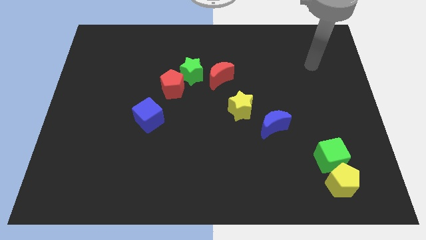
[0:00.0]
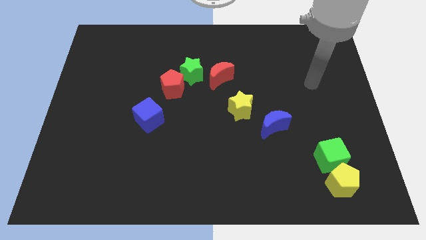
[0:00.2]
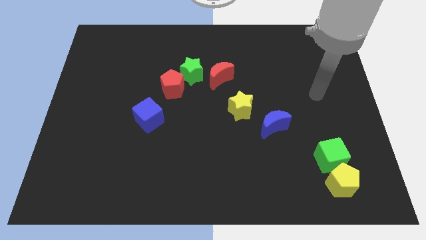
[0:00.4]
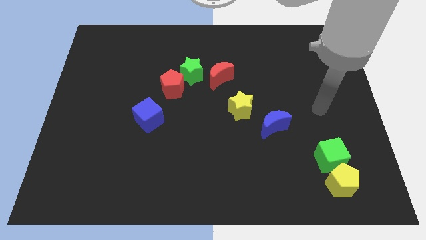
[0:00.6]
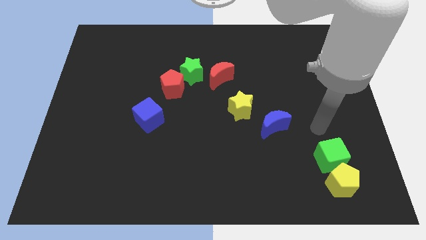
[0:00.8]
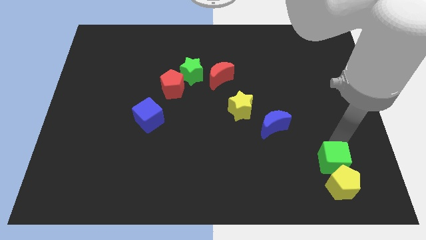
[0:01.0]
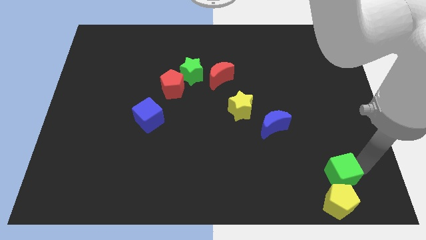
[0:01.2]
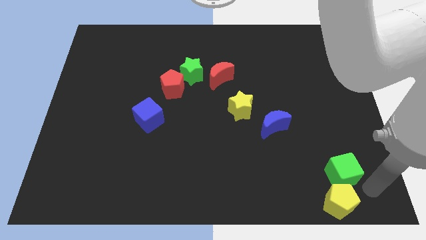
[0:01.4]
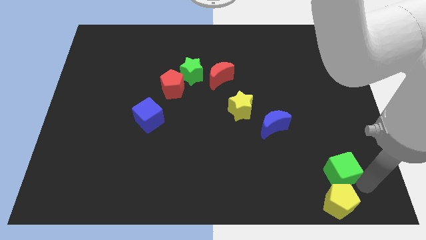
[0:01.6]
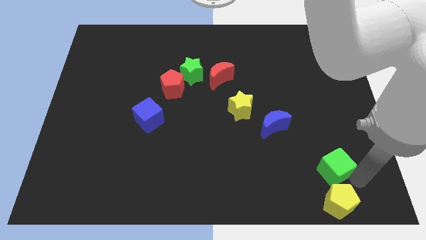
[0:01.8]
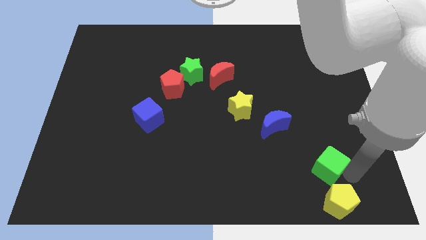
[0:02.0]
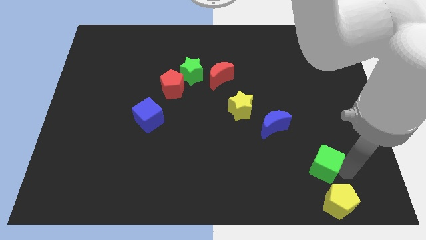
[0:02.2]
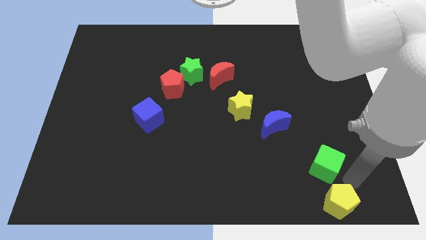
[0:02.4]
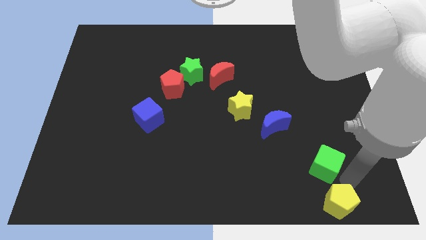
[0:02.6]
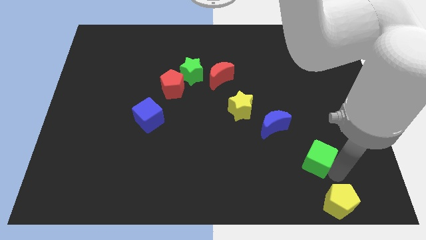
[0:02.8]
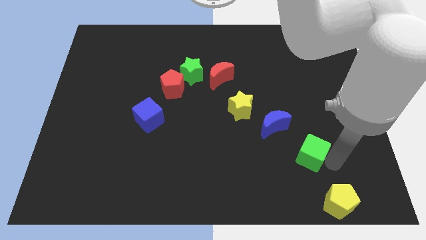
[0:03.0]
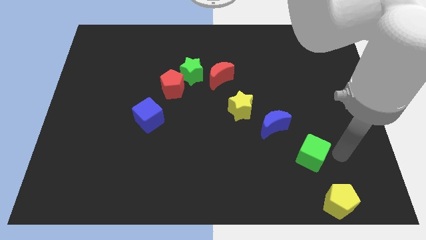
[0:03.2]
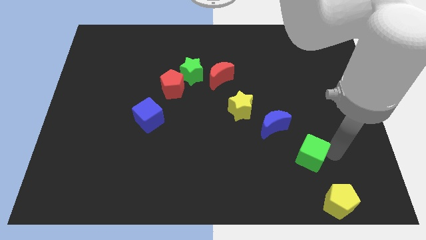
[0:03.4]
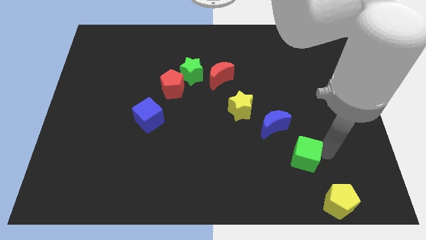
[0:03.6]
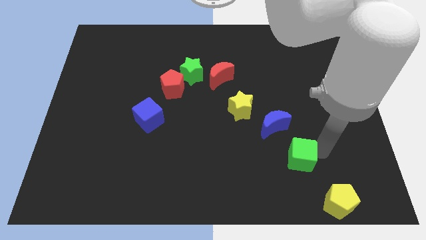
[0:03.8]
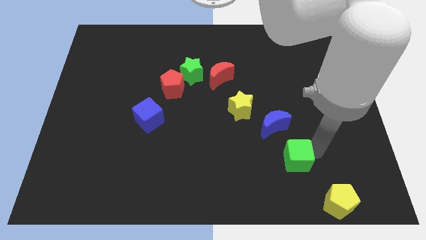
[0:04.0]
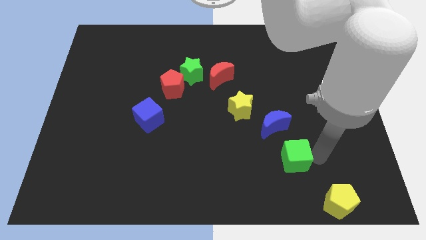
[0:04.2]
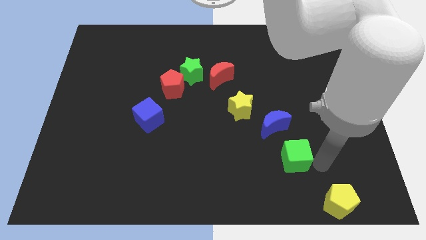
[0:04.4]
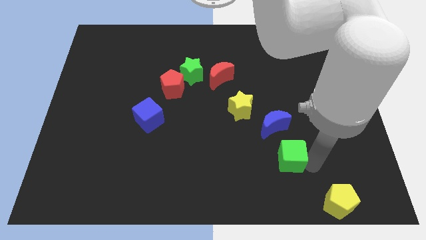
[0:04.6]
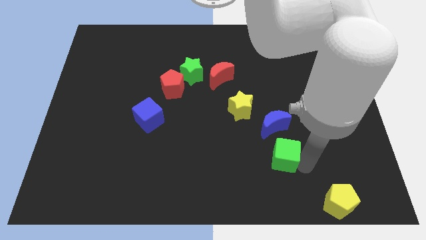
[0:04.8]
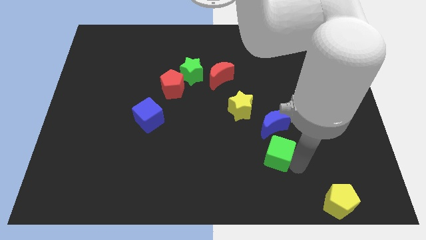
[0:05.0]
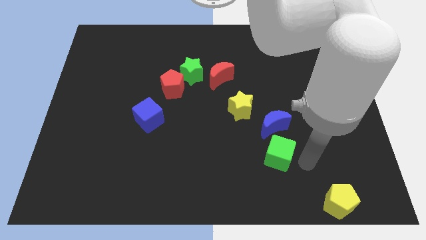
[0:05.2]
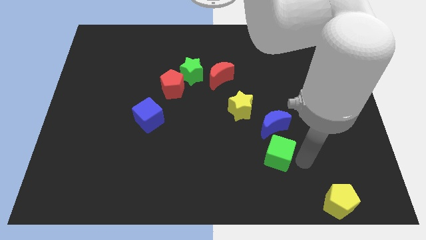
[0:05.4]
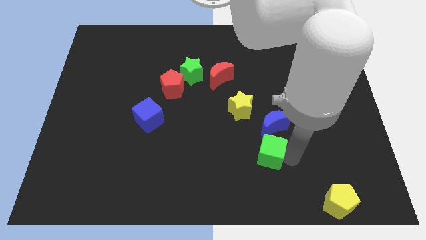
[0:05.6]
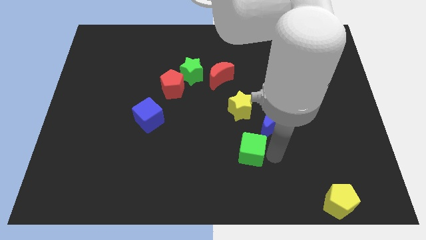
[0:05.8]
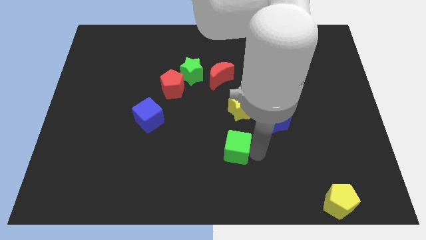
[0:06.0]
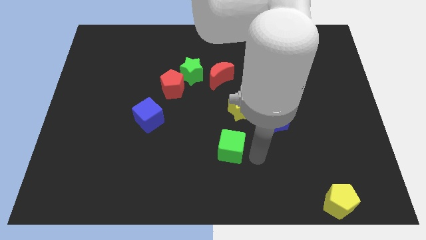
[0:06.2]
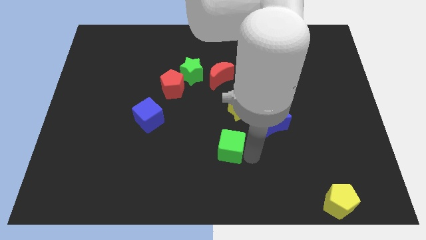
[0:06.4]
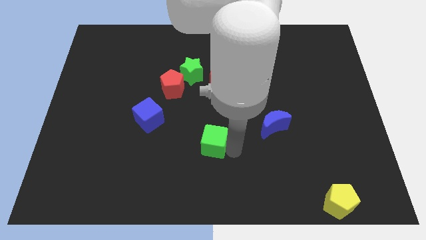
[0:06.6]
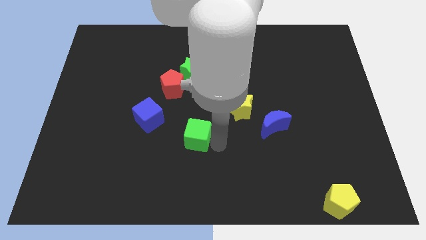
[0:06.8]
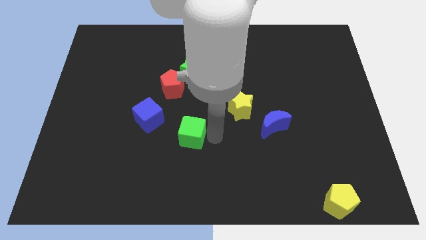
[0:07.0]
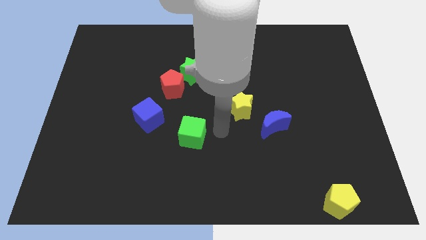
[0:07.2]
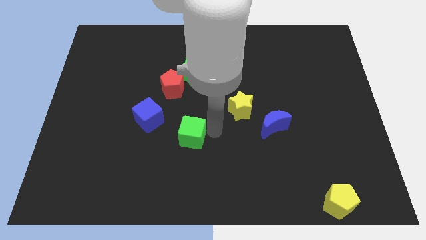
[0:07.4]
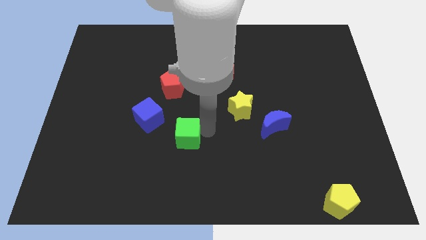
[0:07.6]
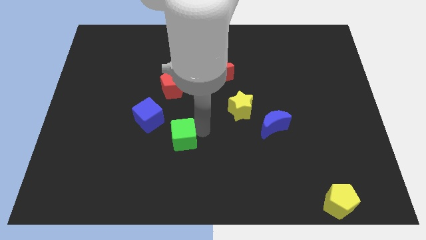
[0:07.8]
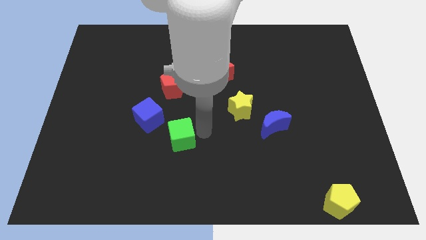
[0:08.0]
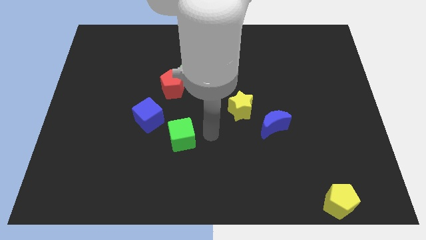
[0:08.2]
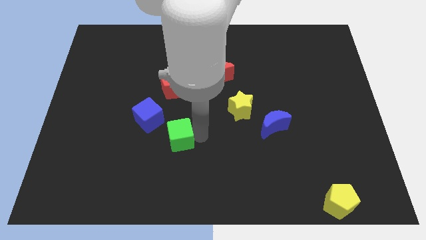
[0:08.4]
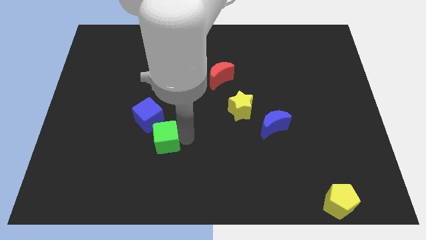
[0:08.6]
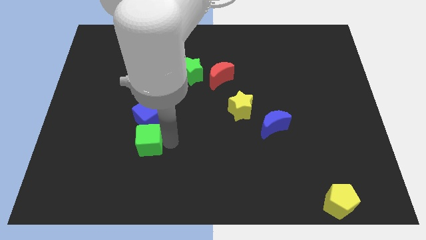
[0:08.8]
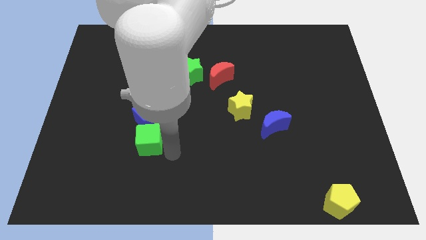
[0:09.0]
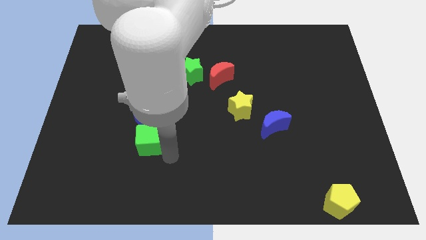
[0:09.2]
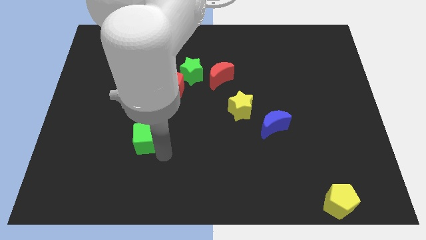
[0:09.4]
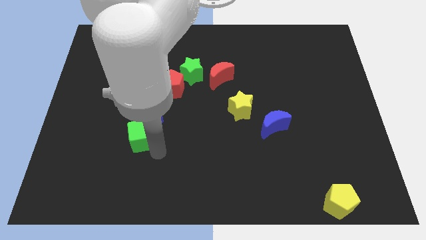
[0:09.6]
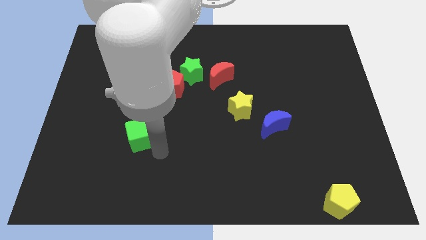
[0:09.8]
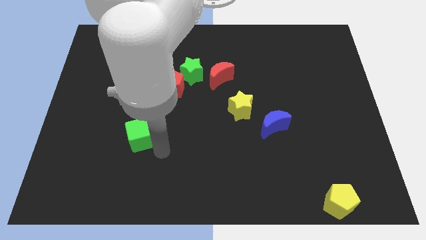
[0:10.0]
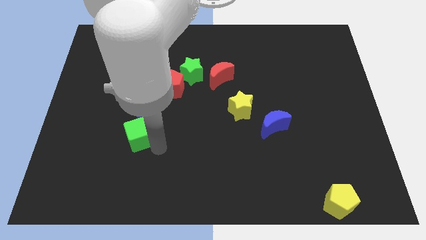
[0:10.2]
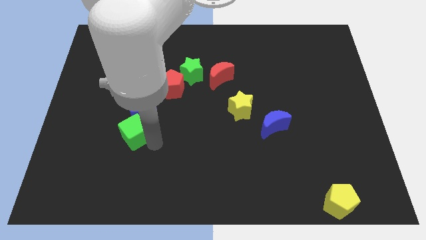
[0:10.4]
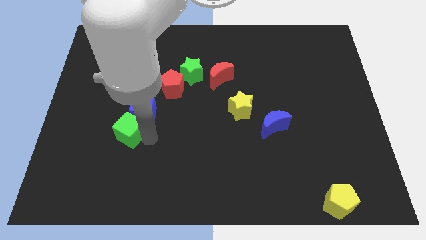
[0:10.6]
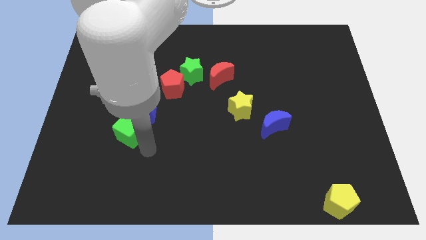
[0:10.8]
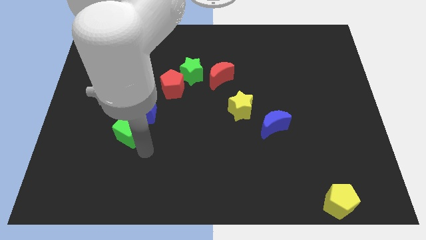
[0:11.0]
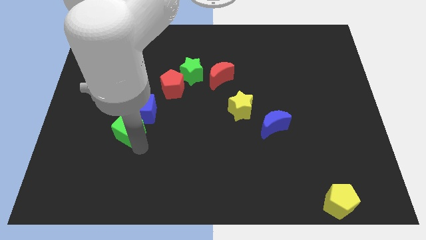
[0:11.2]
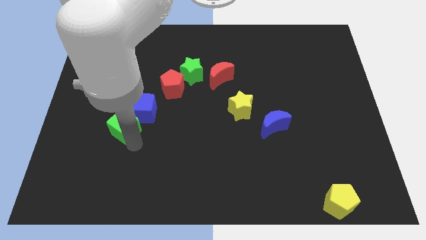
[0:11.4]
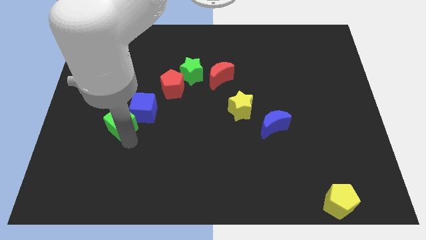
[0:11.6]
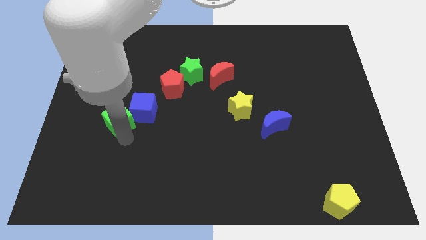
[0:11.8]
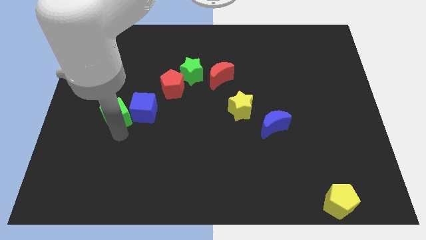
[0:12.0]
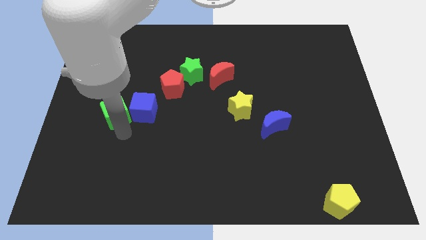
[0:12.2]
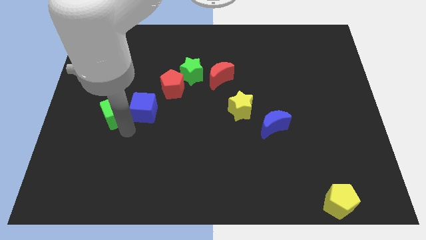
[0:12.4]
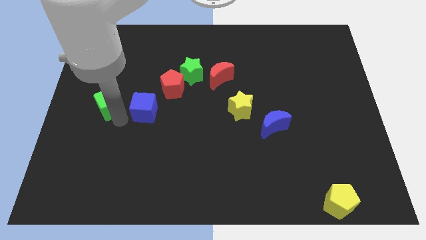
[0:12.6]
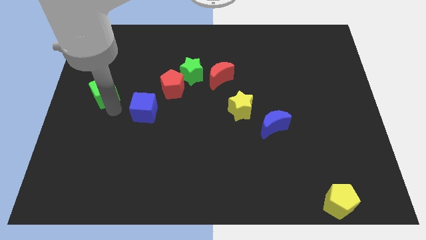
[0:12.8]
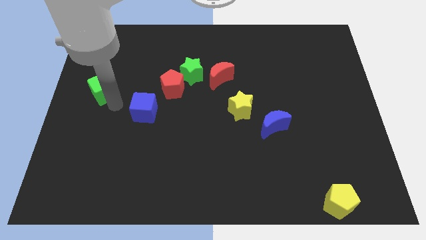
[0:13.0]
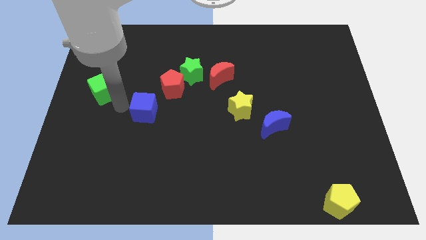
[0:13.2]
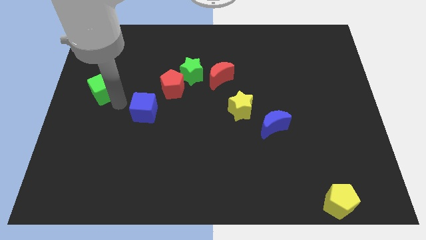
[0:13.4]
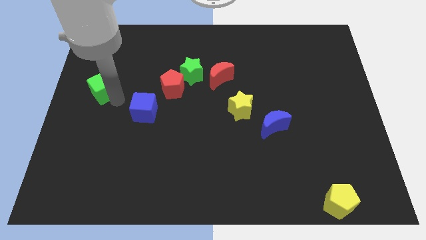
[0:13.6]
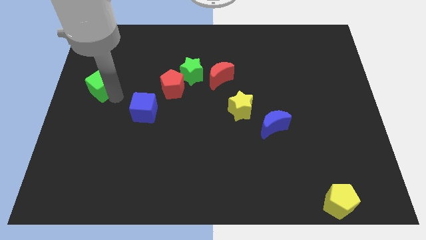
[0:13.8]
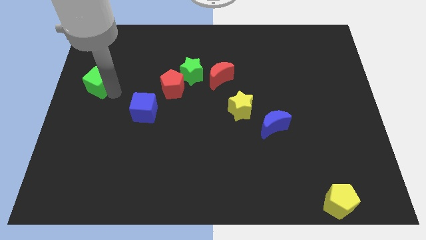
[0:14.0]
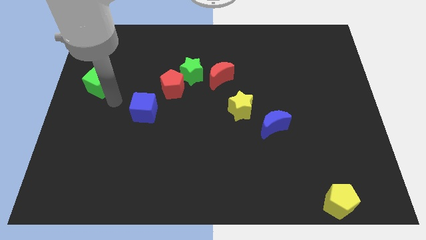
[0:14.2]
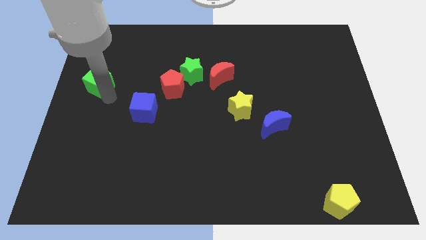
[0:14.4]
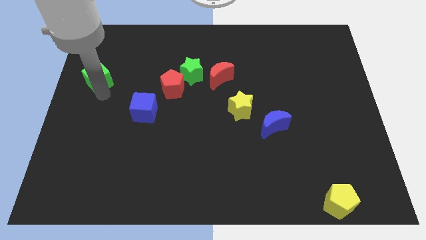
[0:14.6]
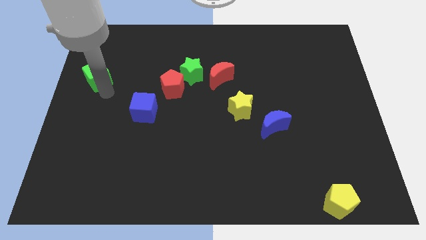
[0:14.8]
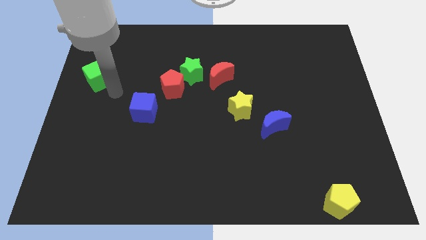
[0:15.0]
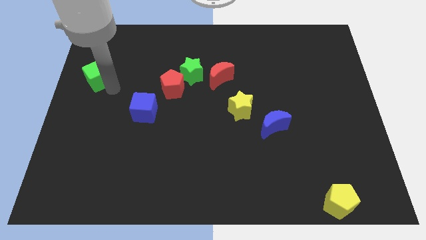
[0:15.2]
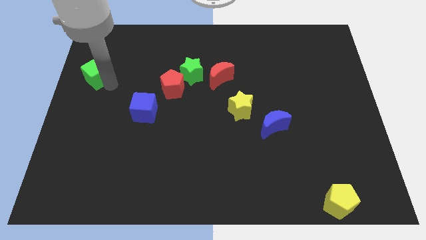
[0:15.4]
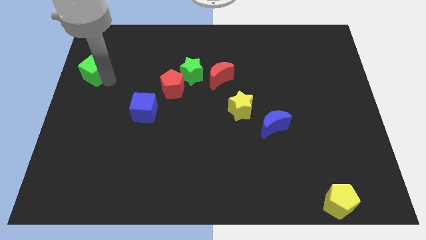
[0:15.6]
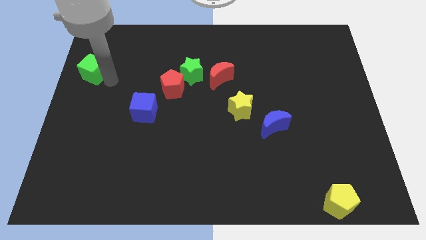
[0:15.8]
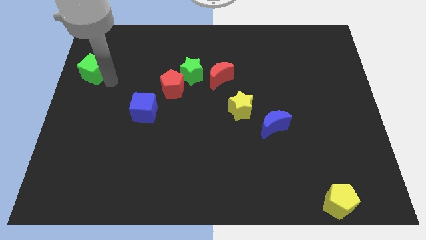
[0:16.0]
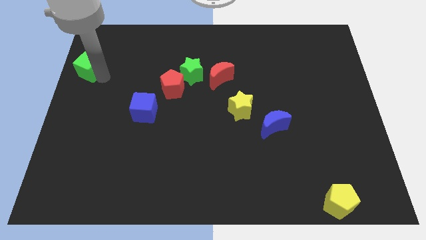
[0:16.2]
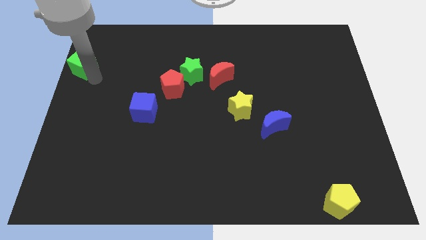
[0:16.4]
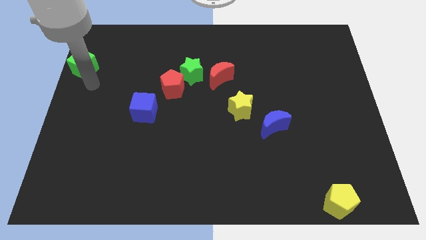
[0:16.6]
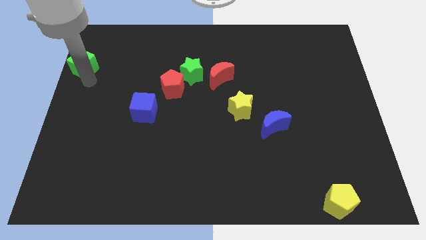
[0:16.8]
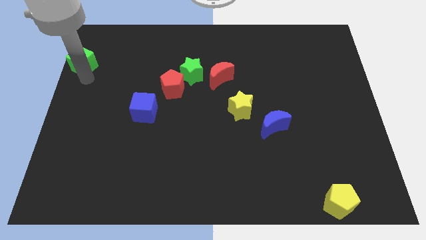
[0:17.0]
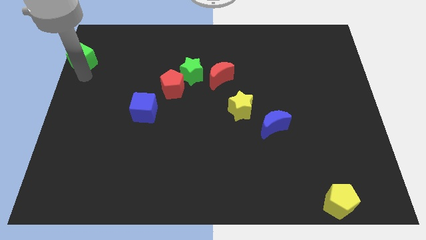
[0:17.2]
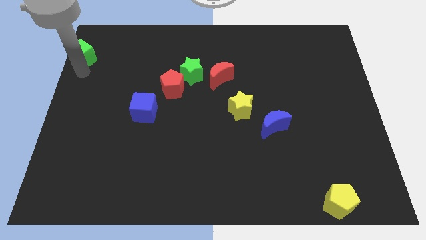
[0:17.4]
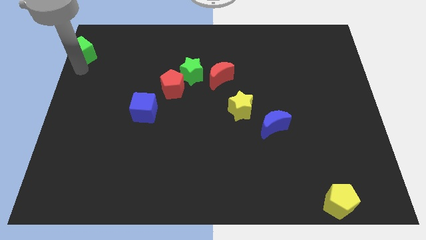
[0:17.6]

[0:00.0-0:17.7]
put the green cube to the upper left corner
